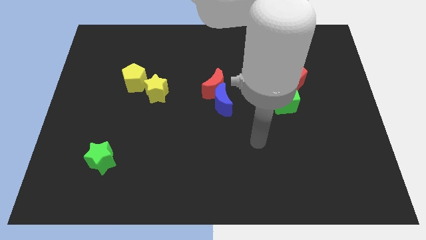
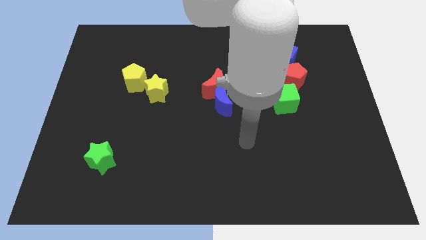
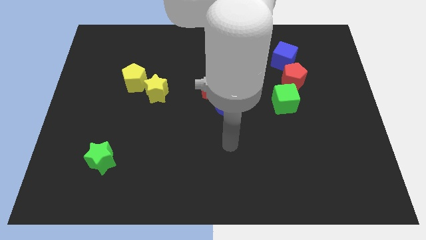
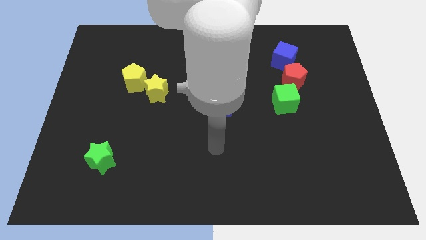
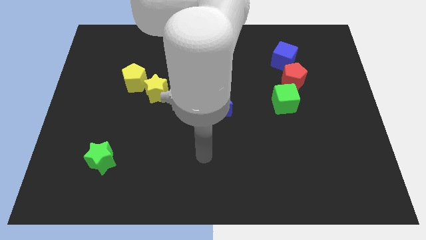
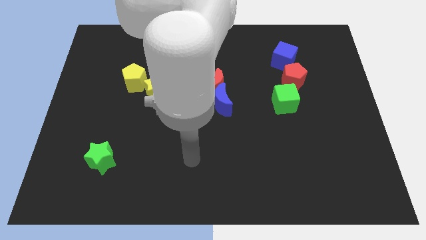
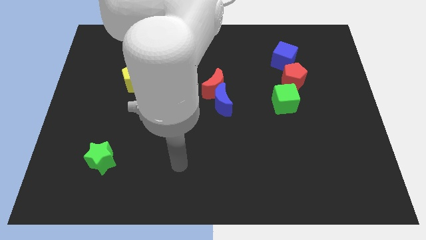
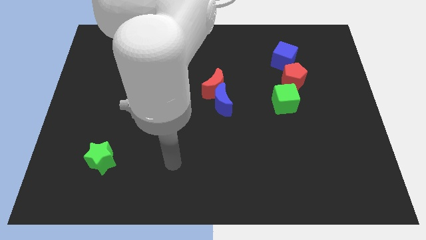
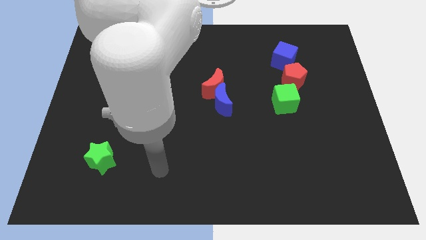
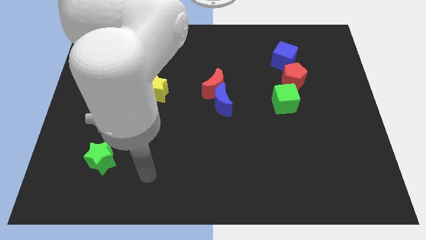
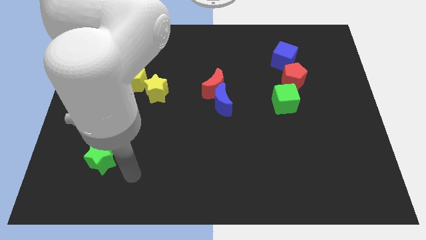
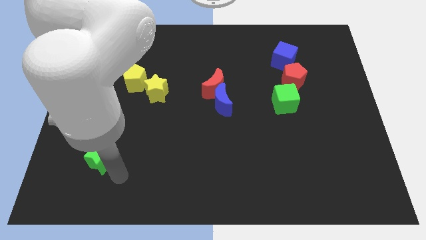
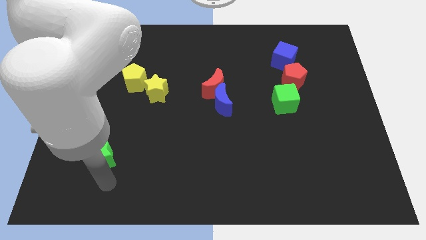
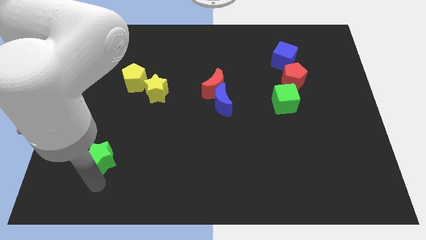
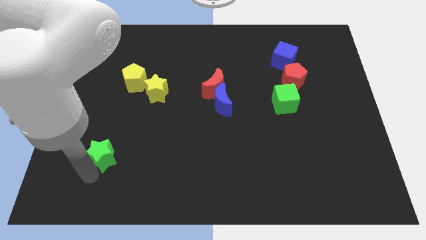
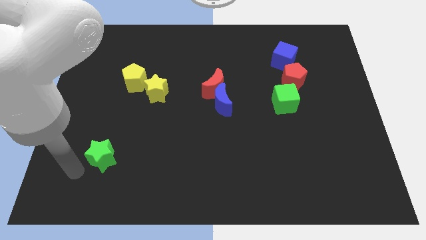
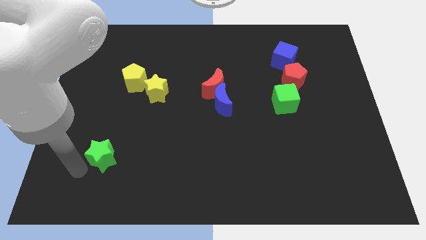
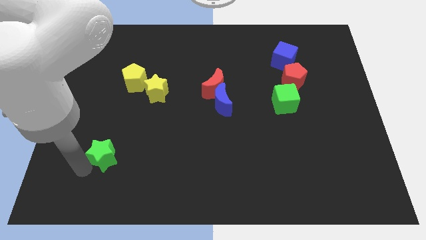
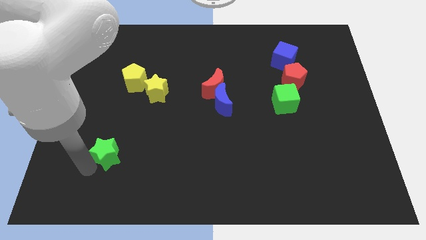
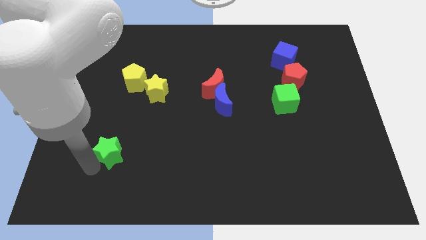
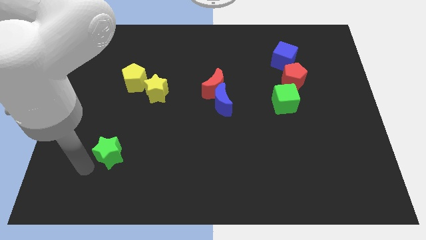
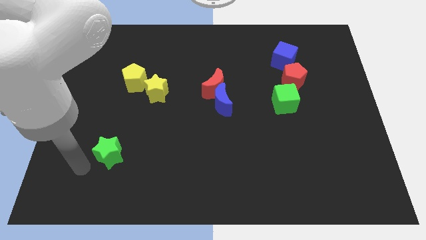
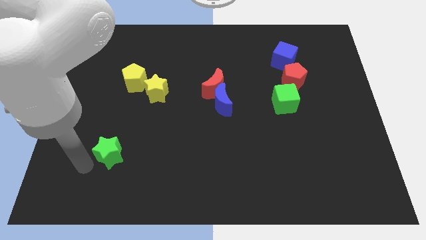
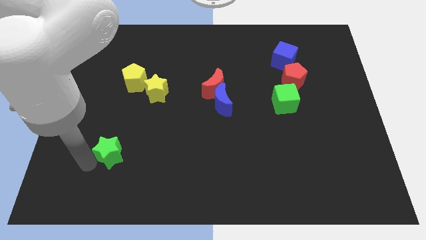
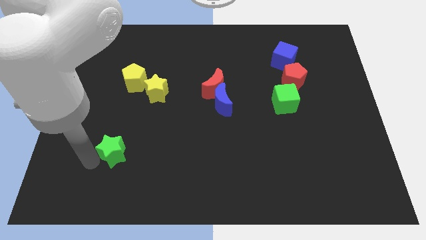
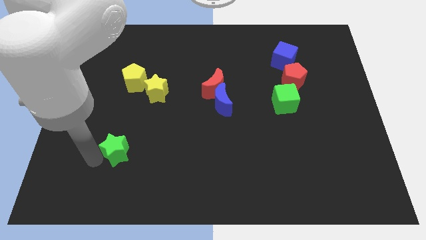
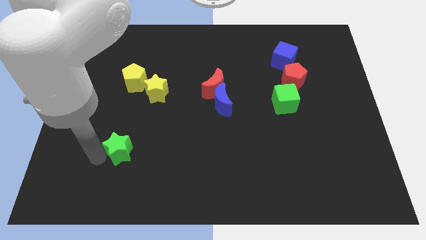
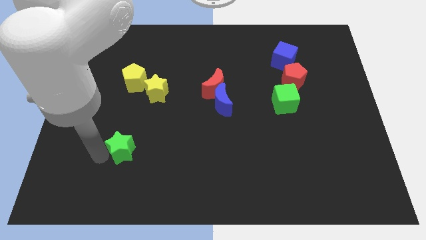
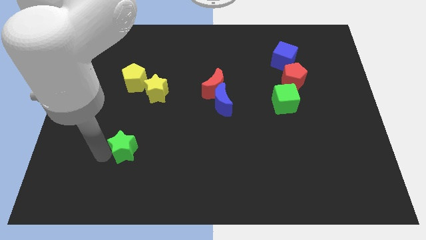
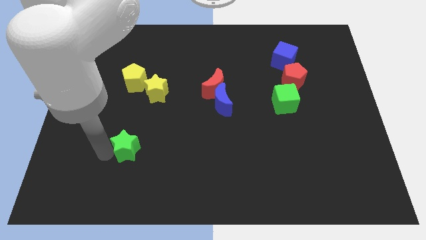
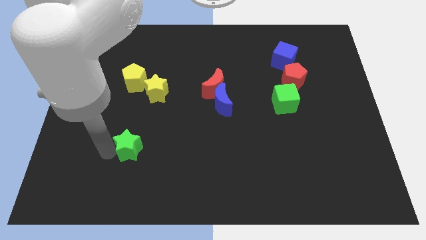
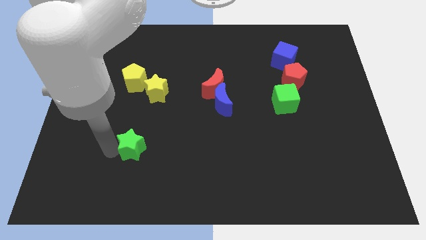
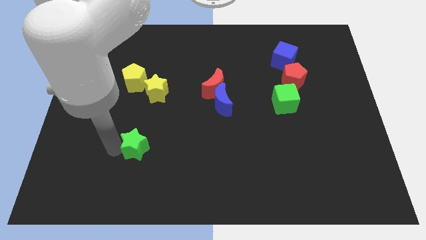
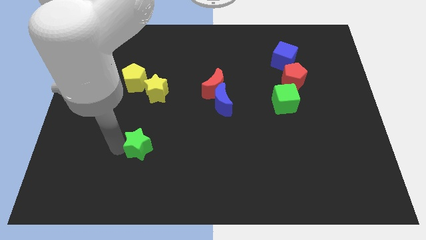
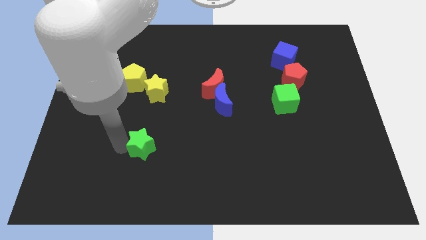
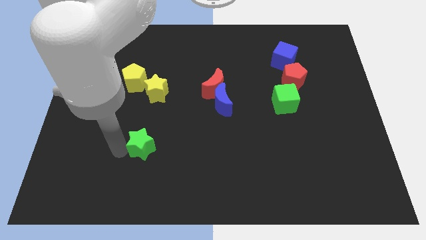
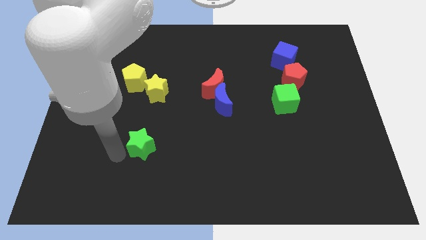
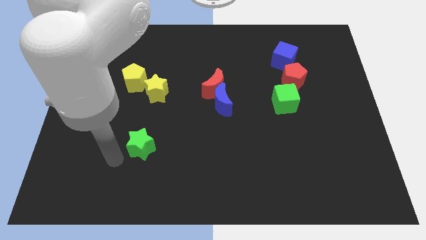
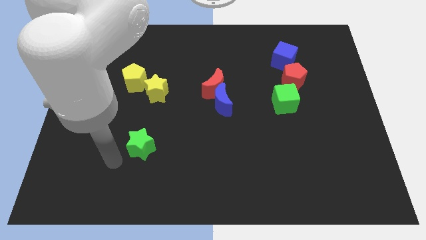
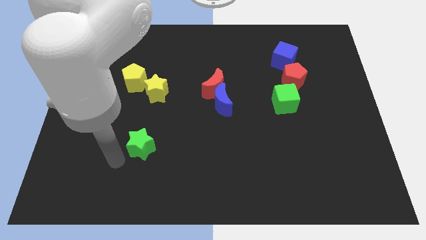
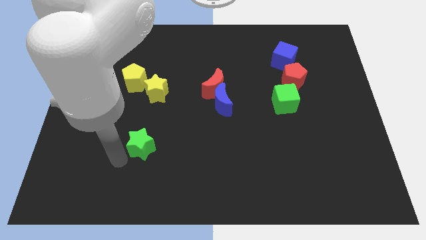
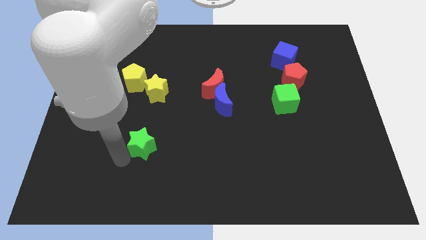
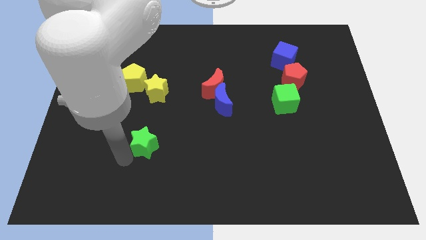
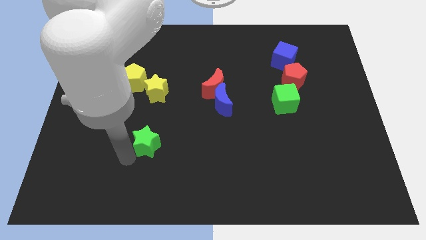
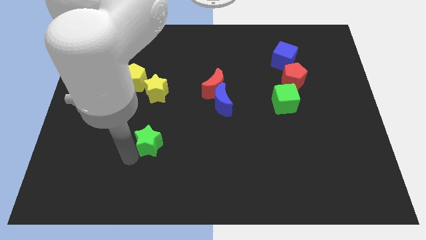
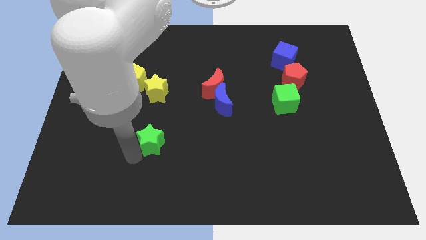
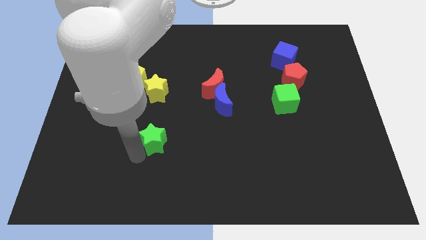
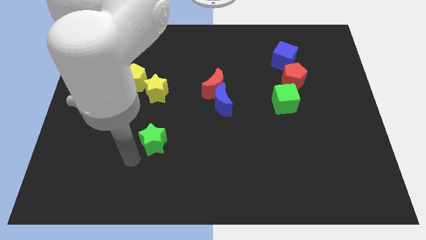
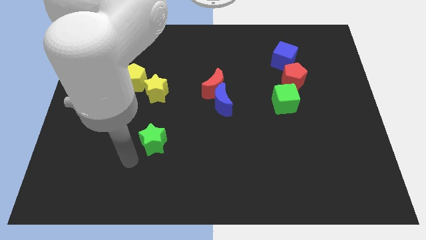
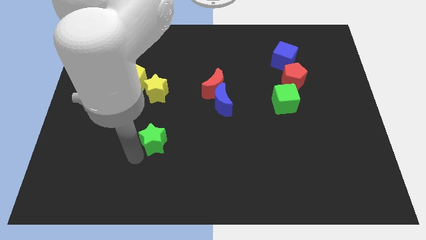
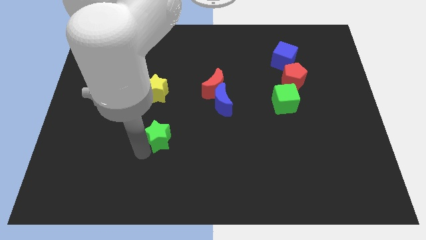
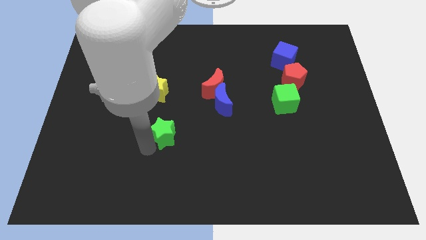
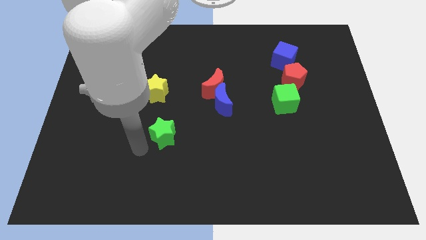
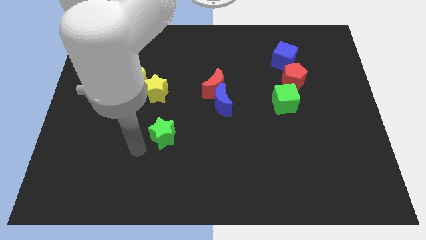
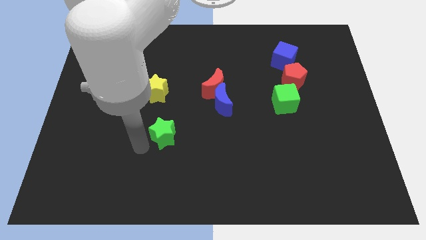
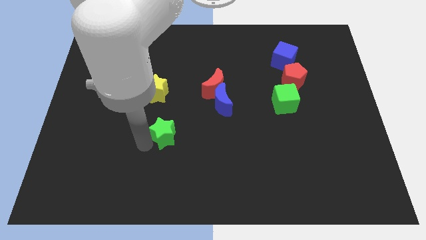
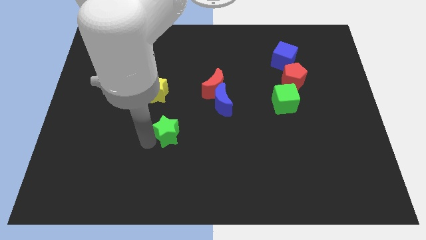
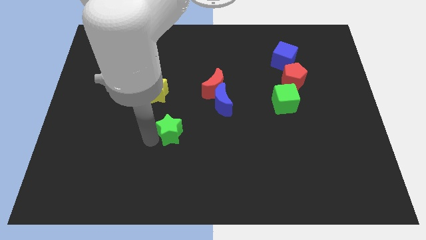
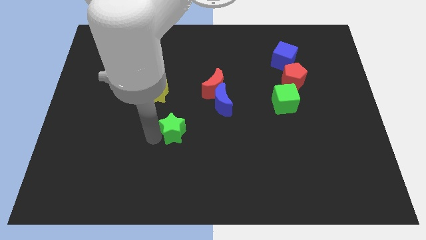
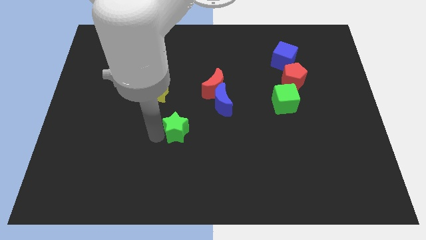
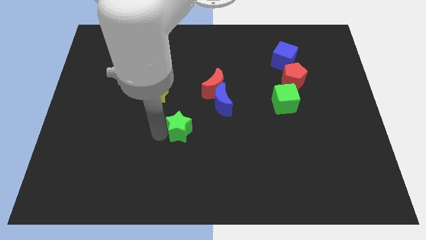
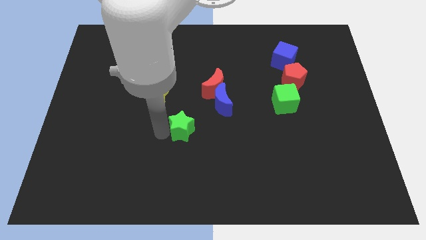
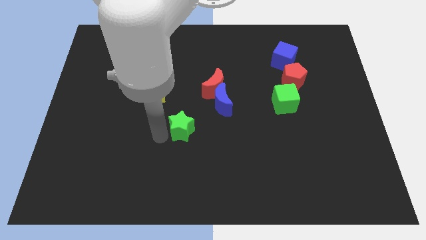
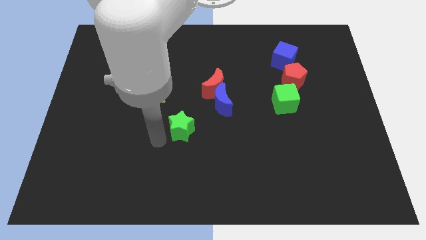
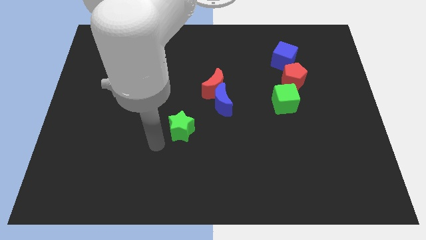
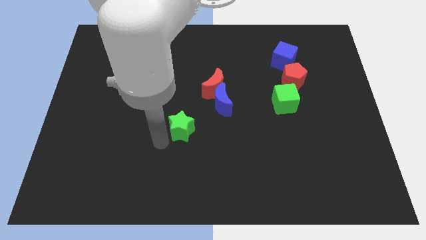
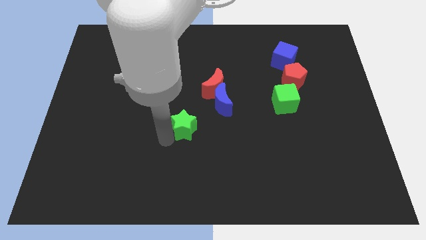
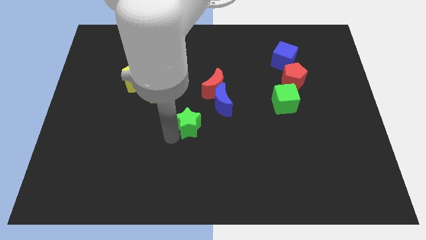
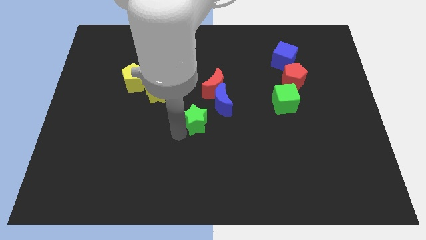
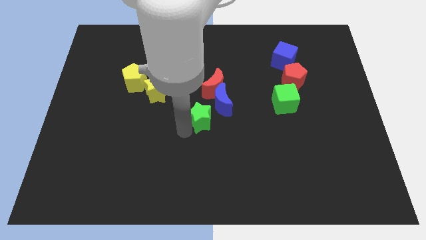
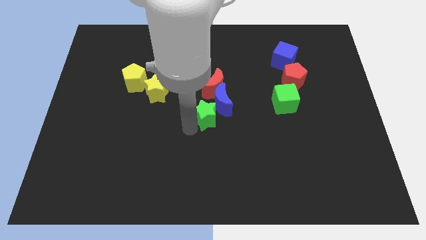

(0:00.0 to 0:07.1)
put the green star towards the blue moon
